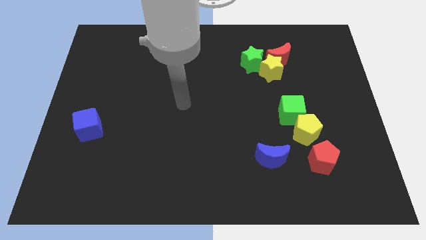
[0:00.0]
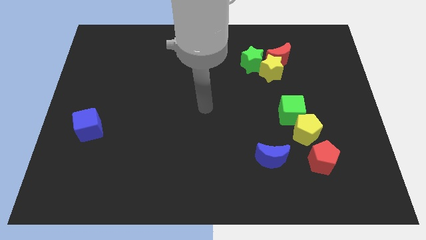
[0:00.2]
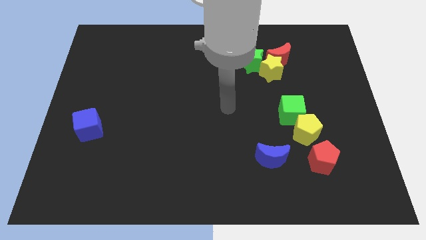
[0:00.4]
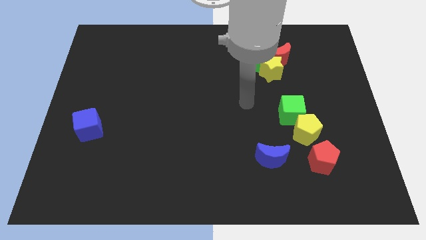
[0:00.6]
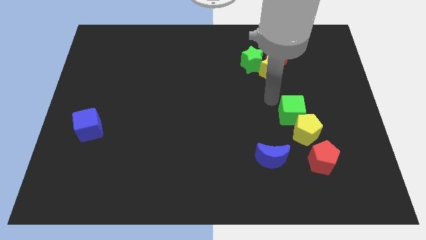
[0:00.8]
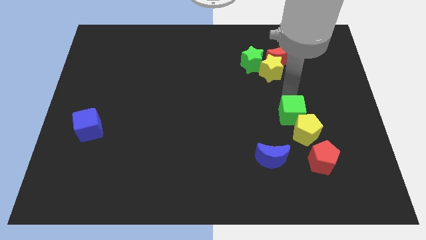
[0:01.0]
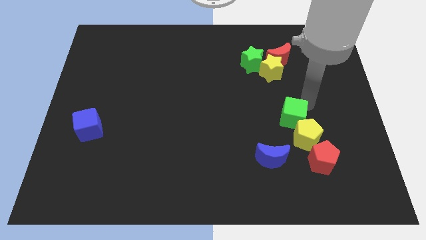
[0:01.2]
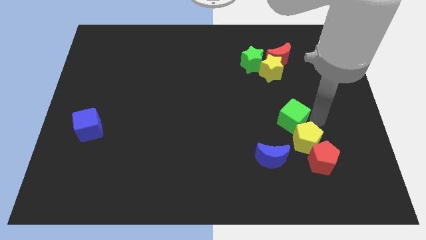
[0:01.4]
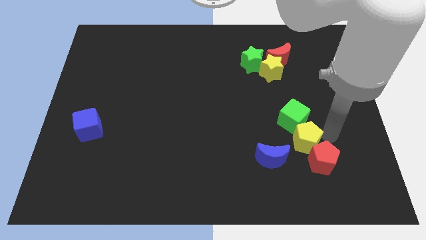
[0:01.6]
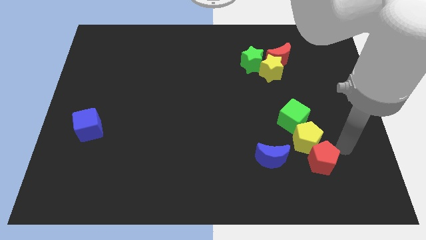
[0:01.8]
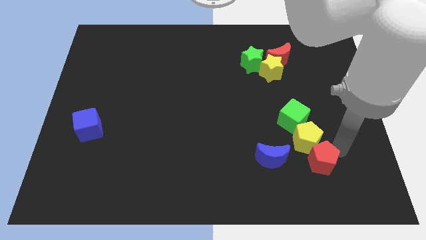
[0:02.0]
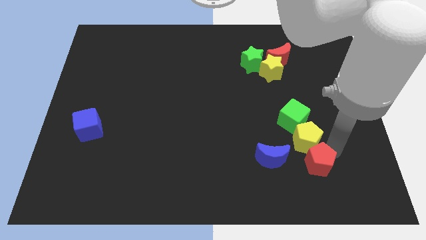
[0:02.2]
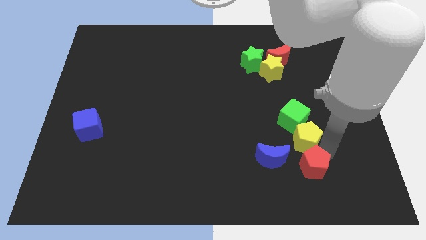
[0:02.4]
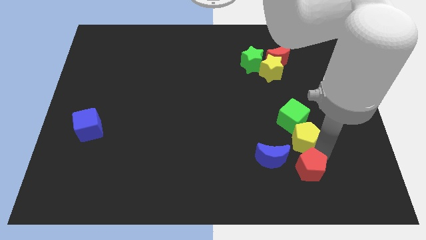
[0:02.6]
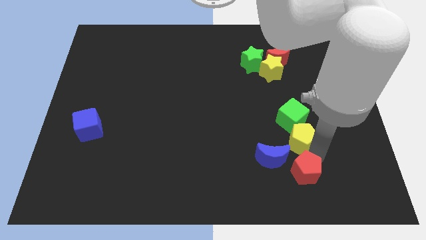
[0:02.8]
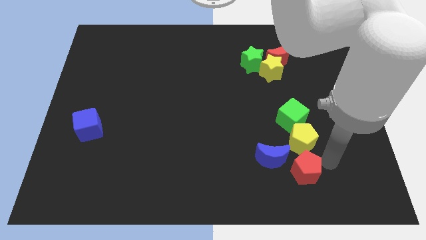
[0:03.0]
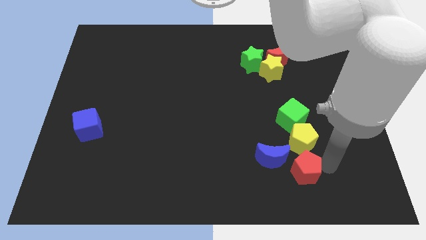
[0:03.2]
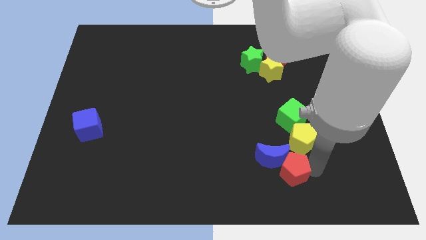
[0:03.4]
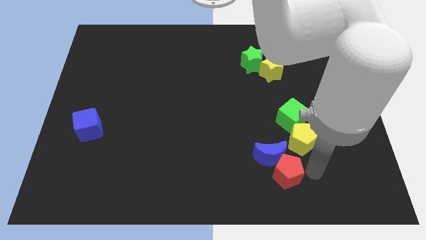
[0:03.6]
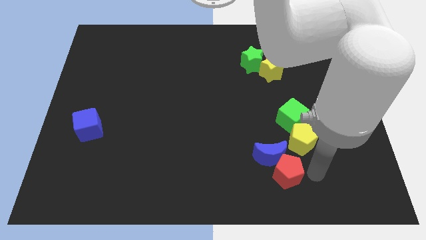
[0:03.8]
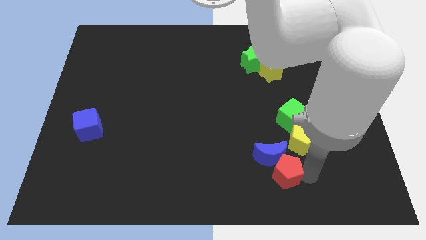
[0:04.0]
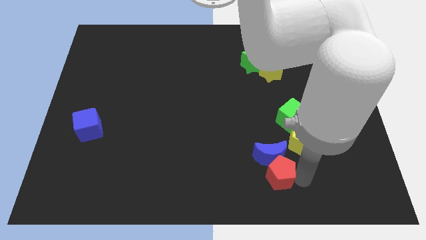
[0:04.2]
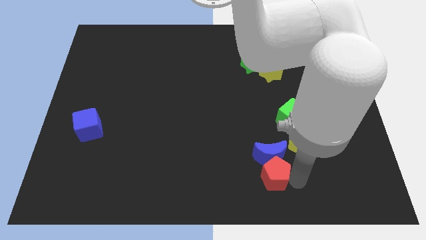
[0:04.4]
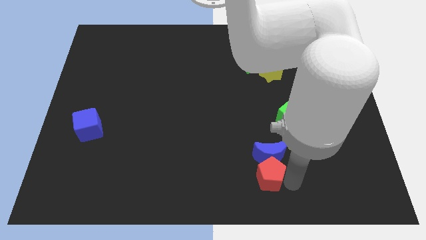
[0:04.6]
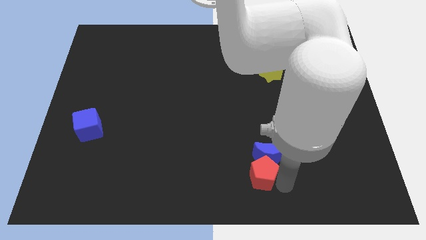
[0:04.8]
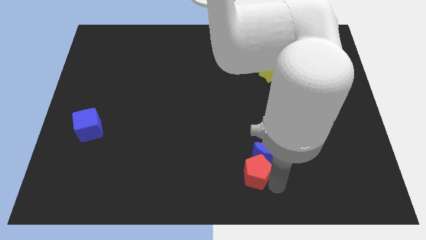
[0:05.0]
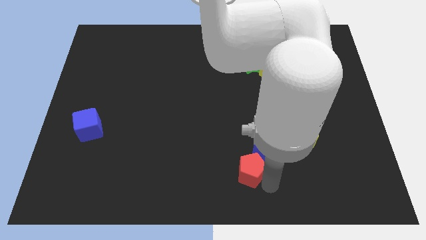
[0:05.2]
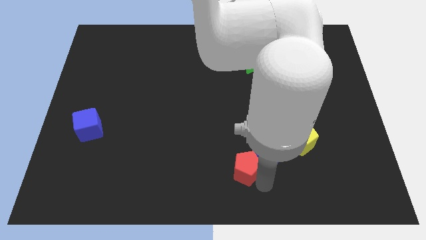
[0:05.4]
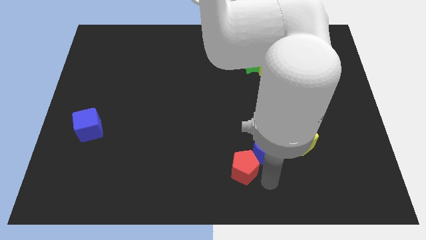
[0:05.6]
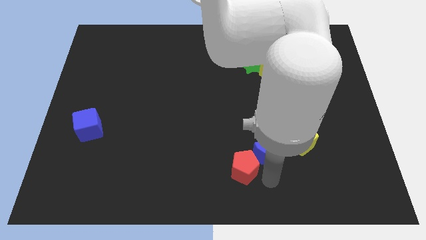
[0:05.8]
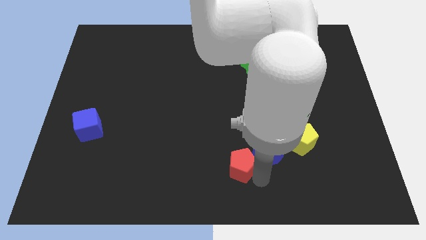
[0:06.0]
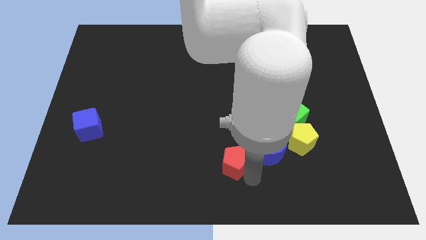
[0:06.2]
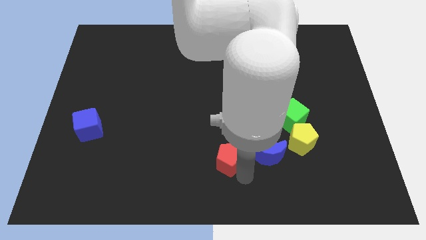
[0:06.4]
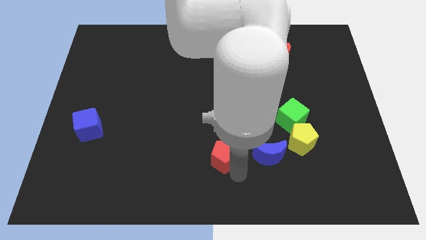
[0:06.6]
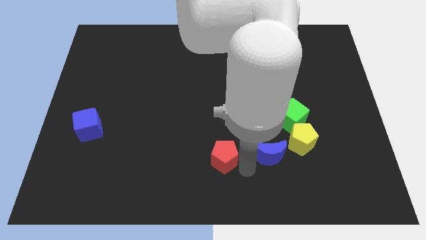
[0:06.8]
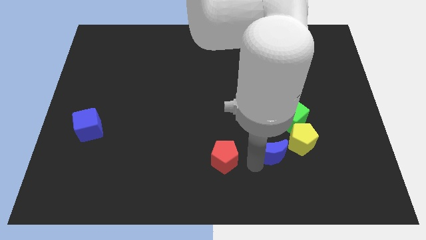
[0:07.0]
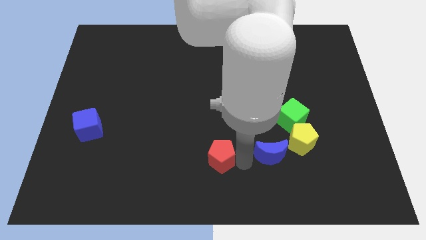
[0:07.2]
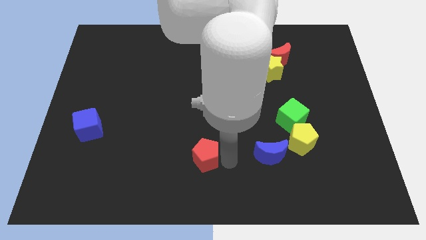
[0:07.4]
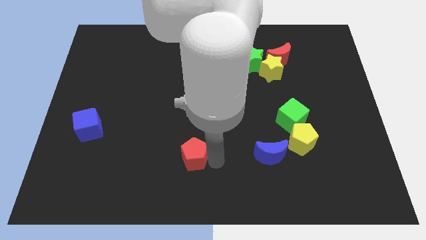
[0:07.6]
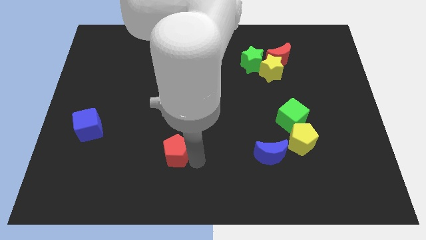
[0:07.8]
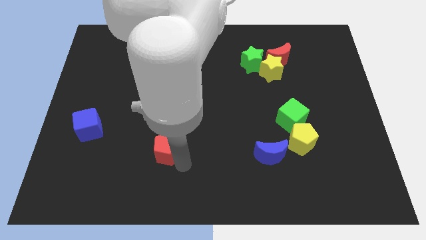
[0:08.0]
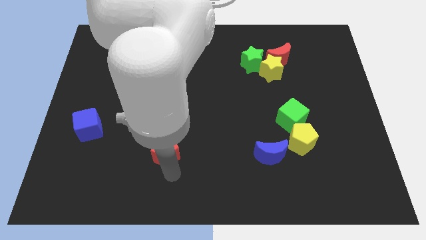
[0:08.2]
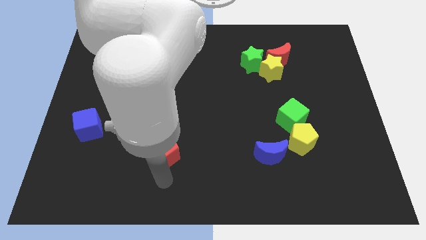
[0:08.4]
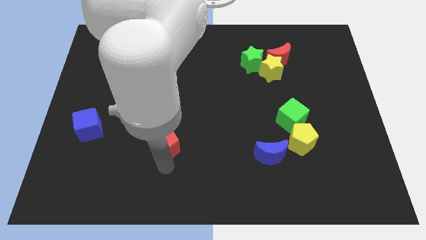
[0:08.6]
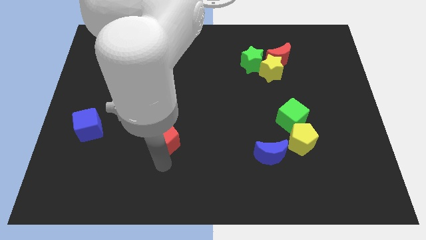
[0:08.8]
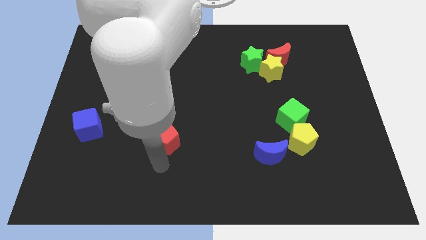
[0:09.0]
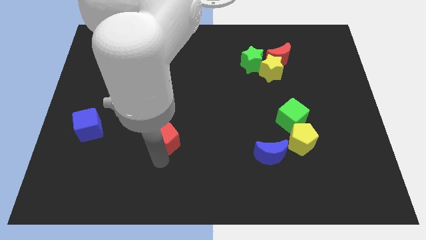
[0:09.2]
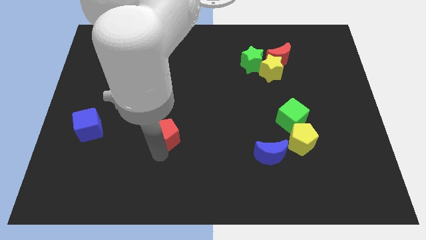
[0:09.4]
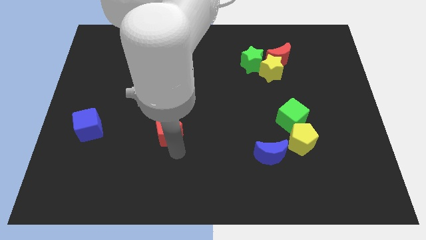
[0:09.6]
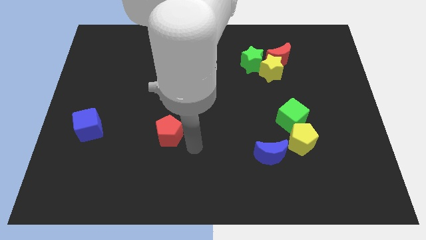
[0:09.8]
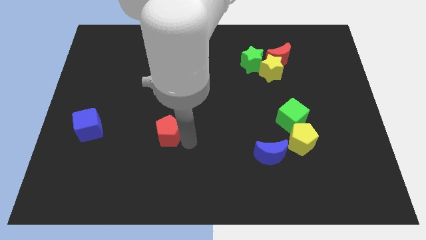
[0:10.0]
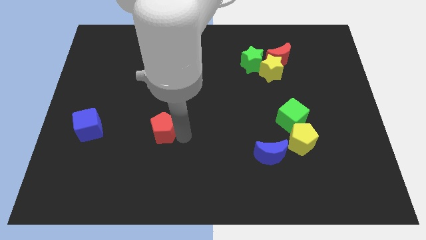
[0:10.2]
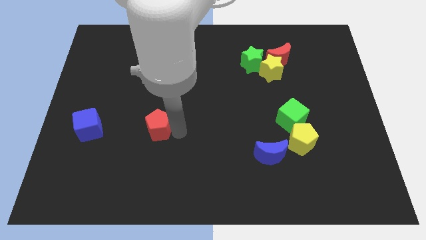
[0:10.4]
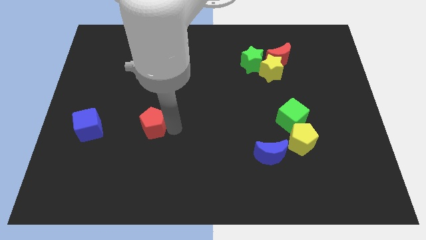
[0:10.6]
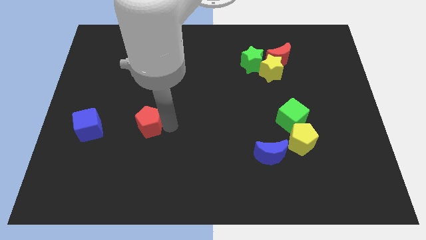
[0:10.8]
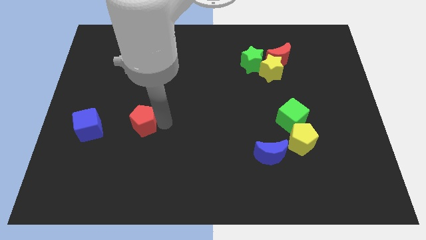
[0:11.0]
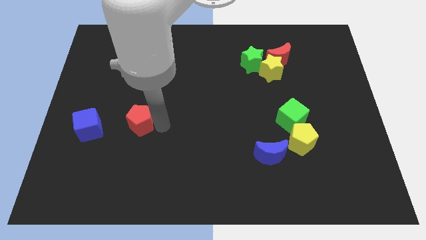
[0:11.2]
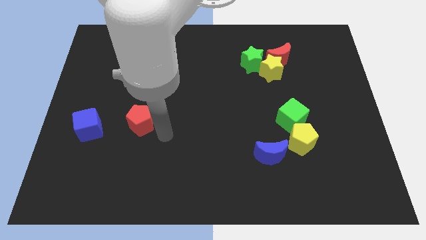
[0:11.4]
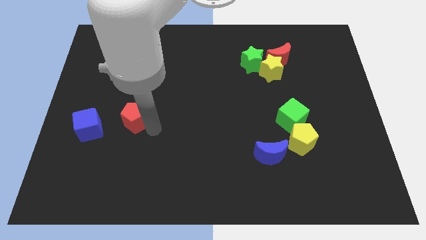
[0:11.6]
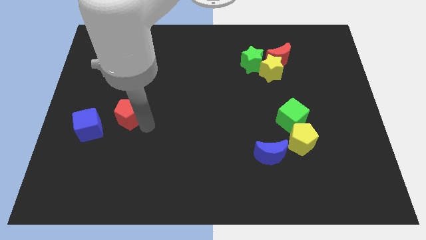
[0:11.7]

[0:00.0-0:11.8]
slide the red pentagon diagonally up and to the right of the blue cube

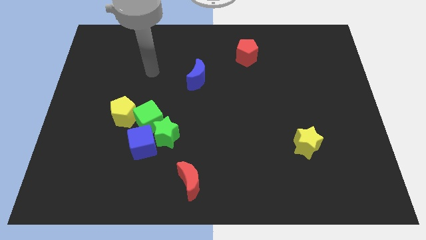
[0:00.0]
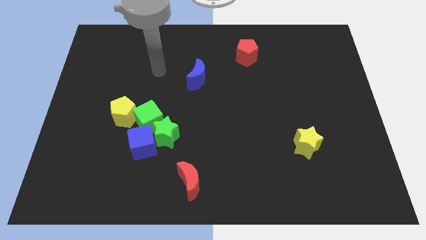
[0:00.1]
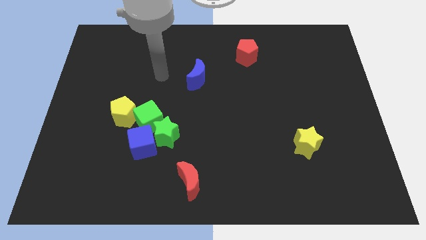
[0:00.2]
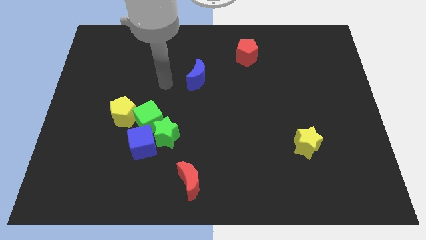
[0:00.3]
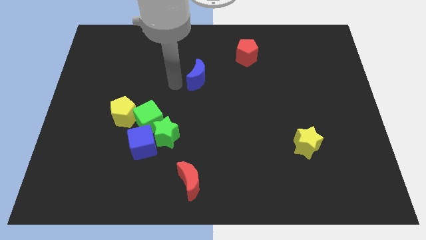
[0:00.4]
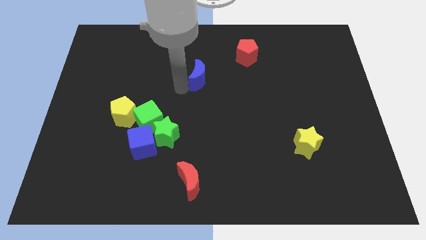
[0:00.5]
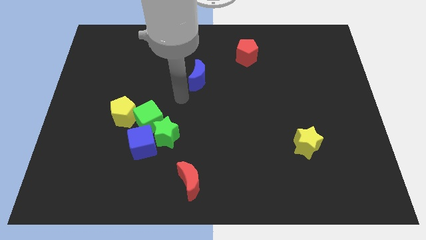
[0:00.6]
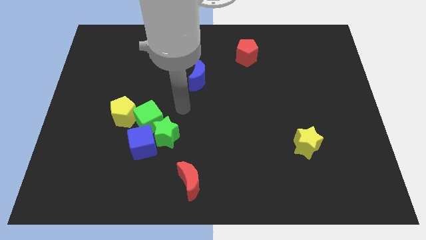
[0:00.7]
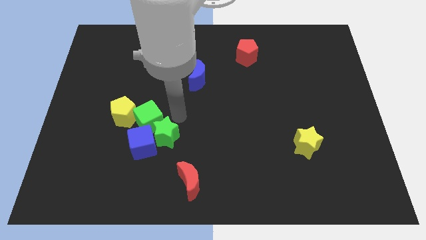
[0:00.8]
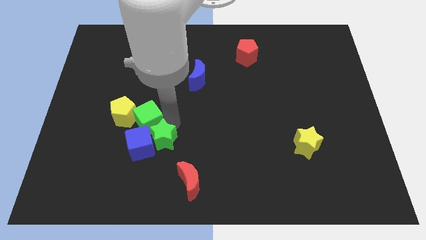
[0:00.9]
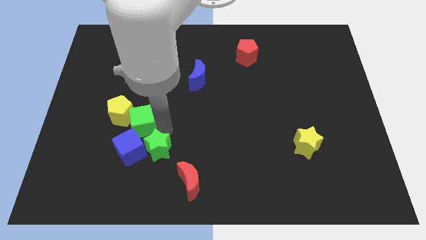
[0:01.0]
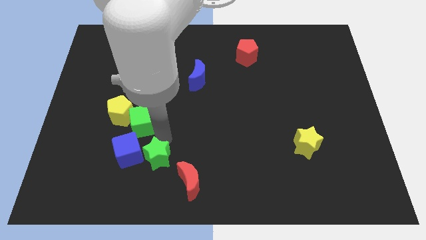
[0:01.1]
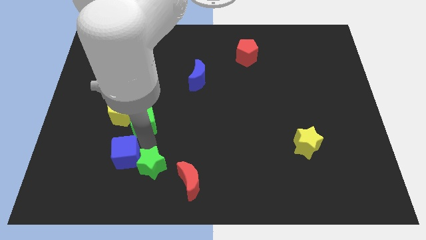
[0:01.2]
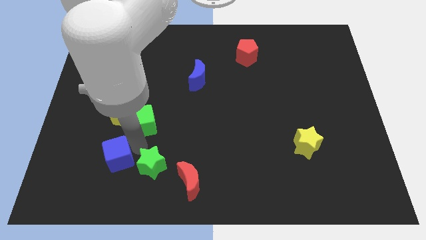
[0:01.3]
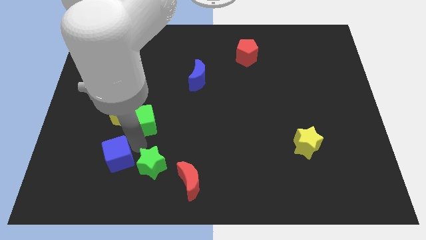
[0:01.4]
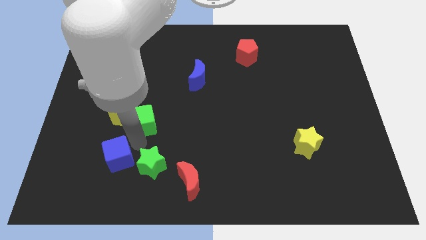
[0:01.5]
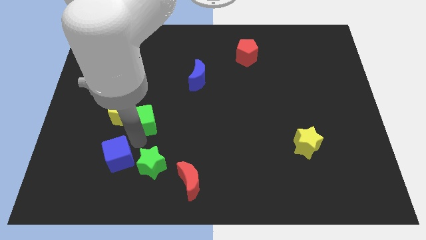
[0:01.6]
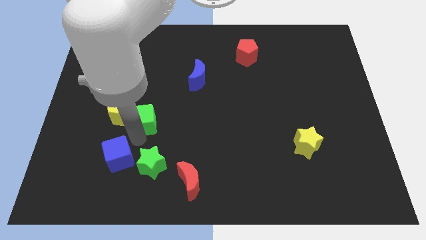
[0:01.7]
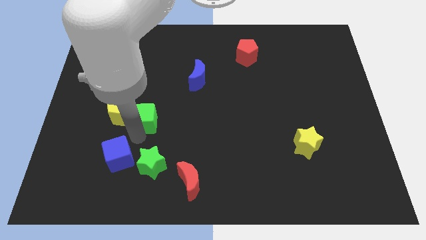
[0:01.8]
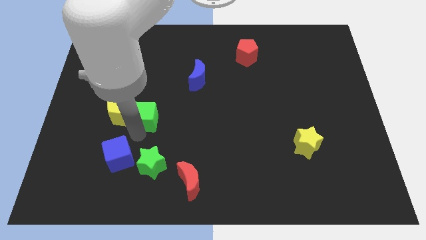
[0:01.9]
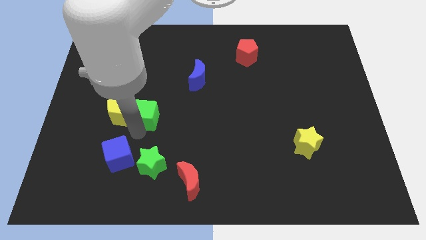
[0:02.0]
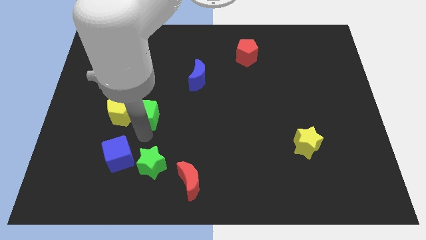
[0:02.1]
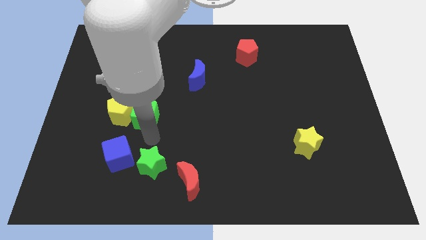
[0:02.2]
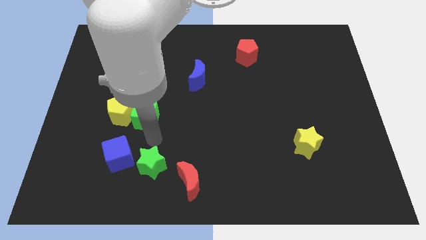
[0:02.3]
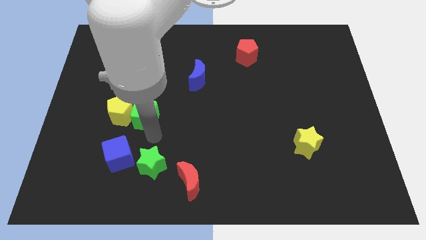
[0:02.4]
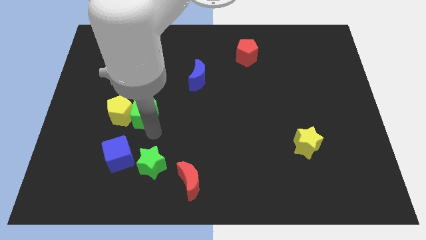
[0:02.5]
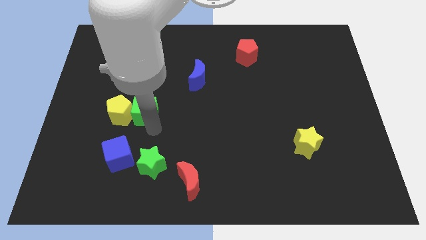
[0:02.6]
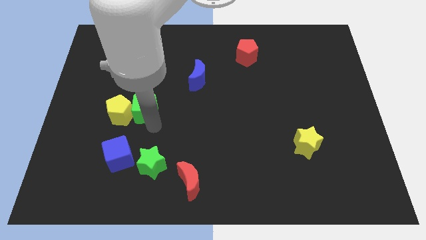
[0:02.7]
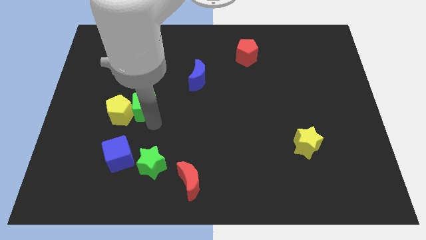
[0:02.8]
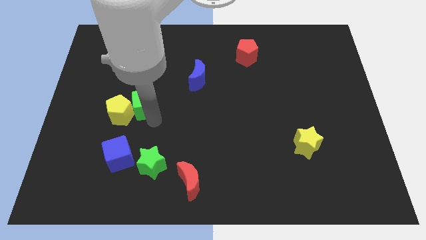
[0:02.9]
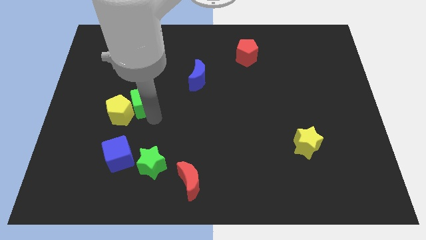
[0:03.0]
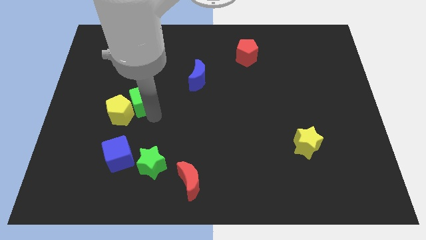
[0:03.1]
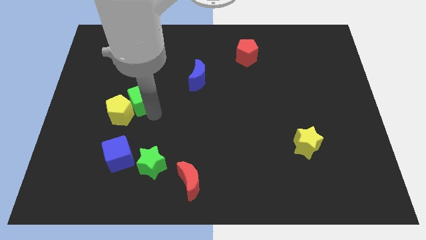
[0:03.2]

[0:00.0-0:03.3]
move the green cube to the top of the yellow pentagon
